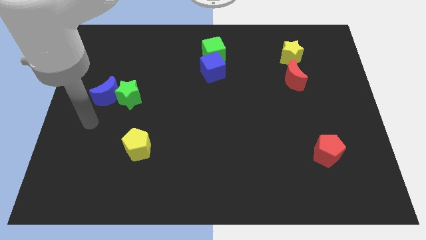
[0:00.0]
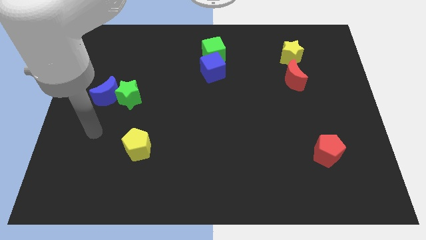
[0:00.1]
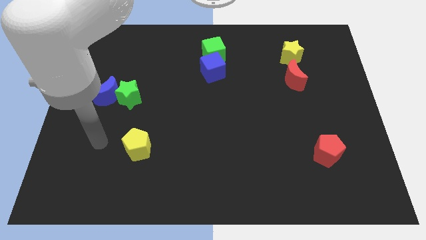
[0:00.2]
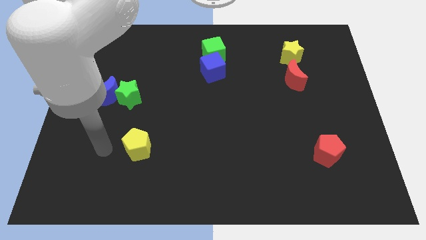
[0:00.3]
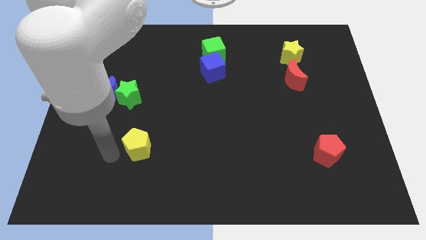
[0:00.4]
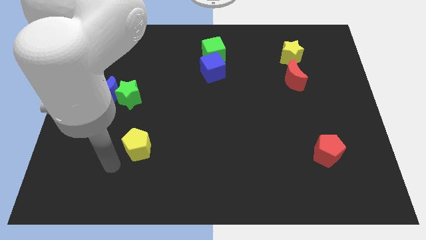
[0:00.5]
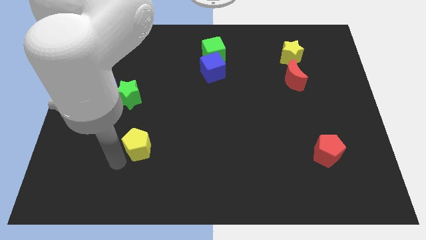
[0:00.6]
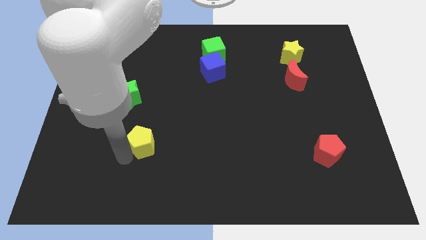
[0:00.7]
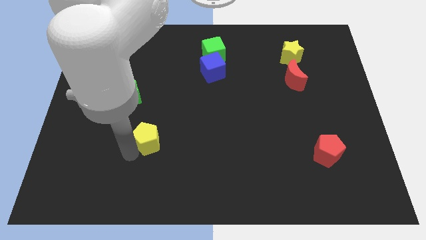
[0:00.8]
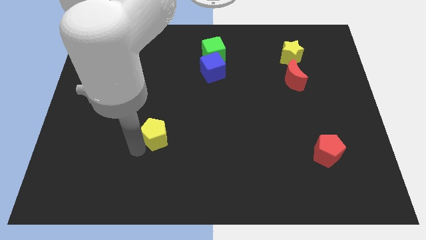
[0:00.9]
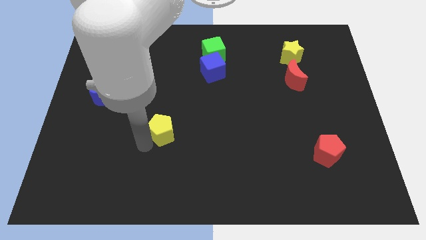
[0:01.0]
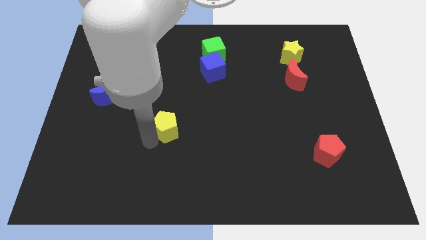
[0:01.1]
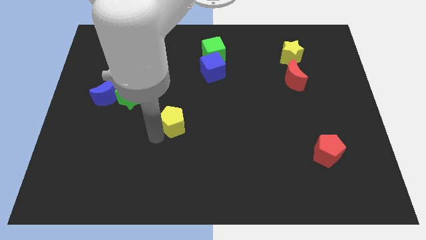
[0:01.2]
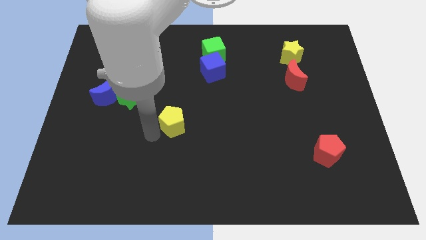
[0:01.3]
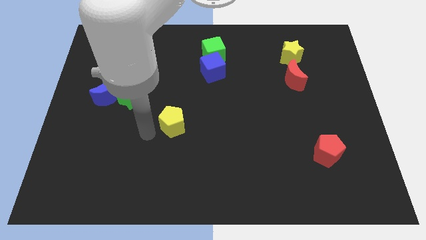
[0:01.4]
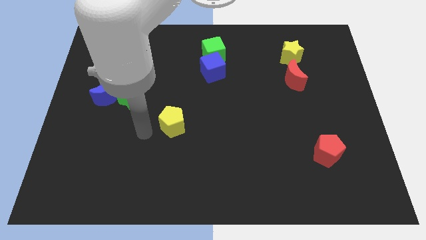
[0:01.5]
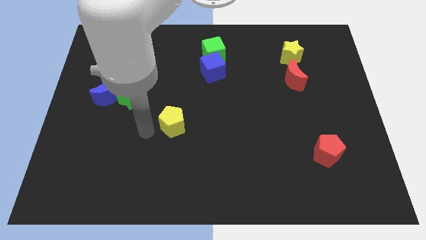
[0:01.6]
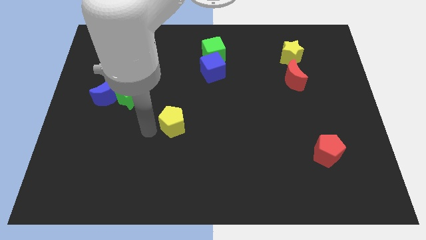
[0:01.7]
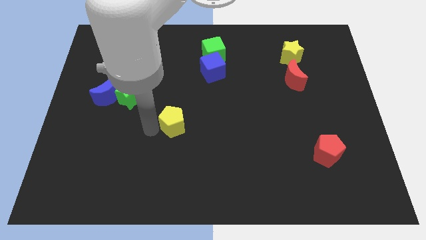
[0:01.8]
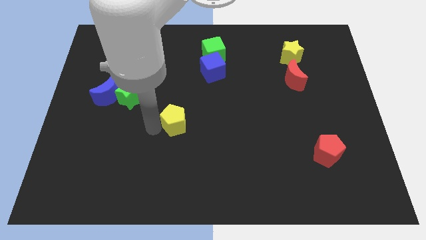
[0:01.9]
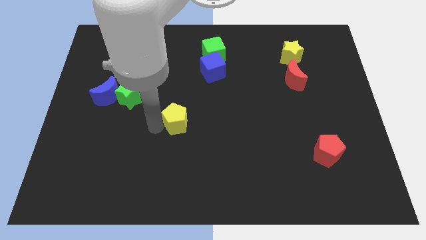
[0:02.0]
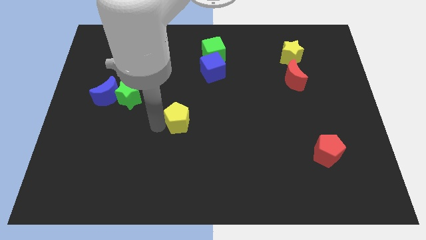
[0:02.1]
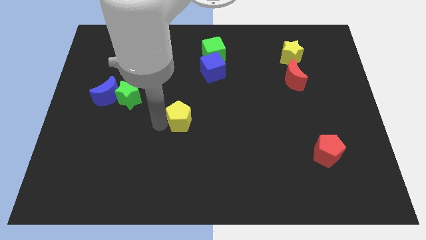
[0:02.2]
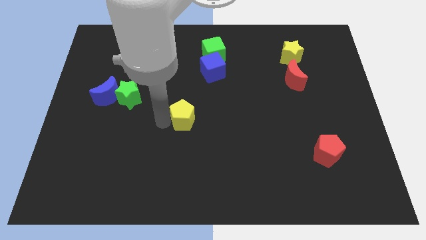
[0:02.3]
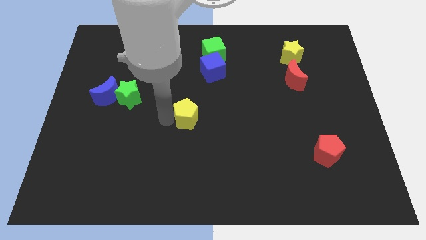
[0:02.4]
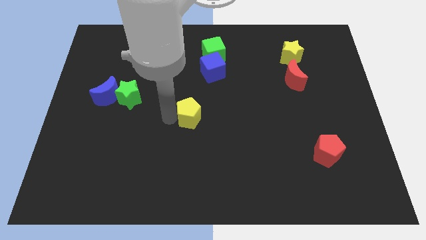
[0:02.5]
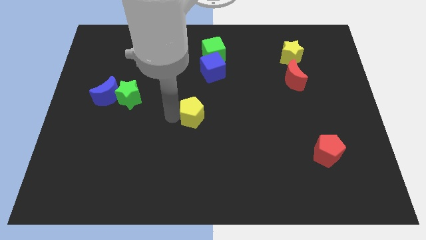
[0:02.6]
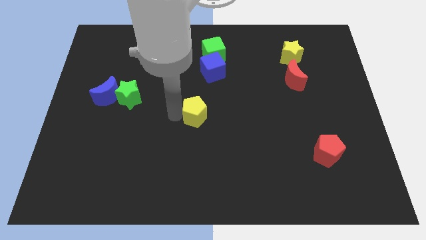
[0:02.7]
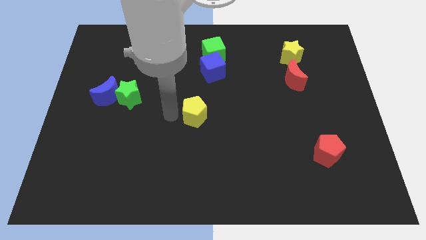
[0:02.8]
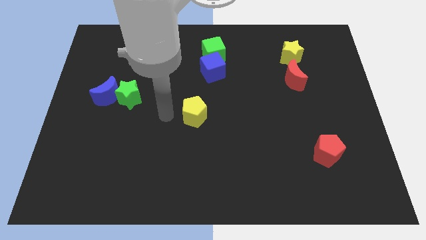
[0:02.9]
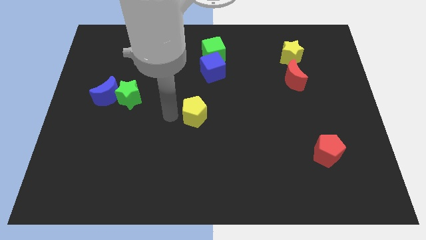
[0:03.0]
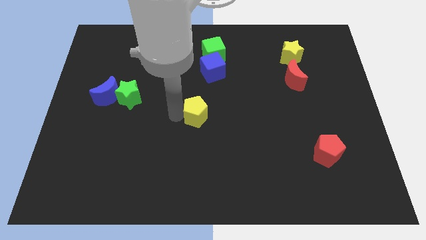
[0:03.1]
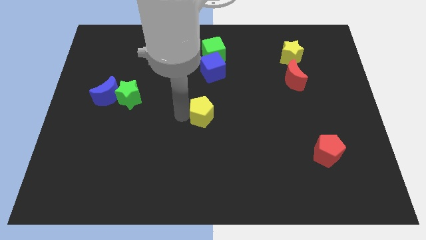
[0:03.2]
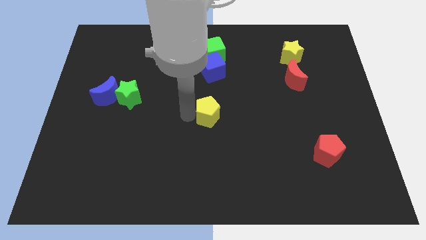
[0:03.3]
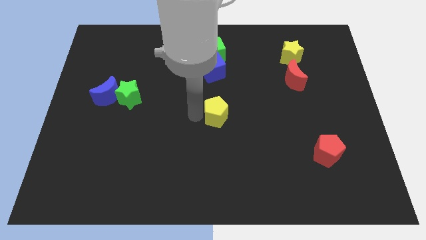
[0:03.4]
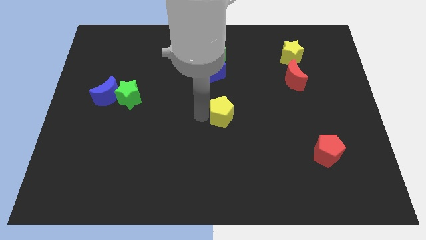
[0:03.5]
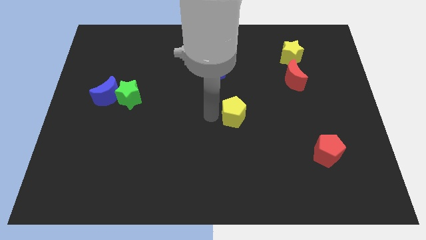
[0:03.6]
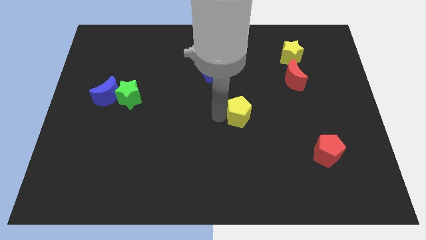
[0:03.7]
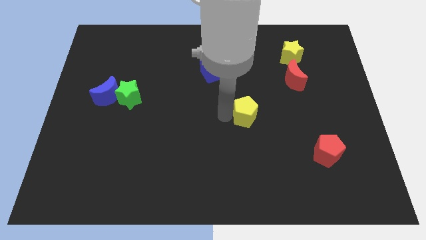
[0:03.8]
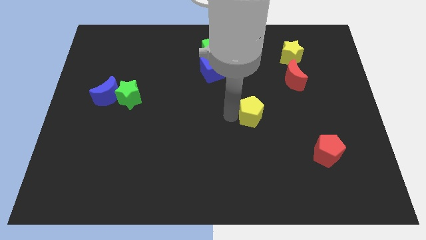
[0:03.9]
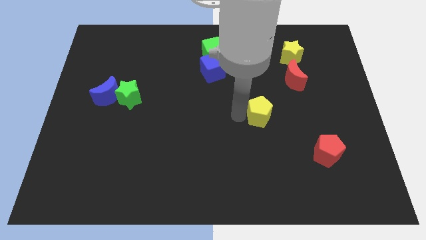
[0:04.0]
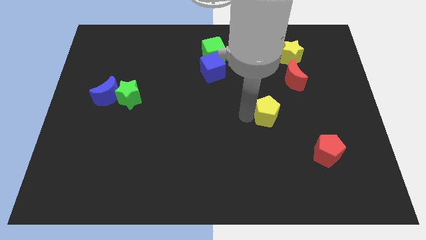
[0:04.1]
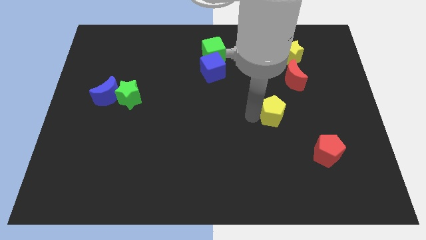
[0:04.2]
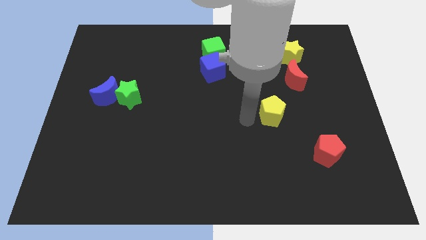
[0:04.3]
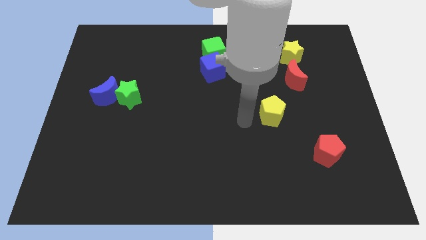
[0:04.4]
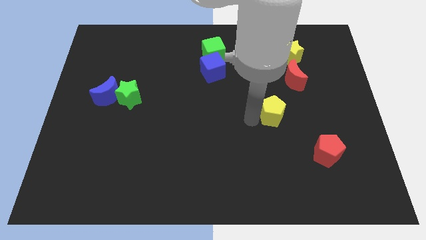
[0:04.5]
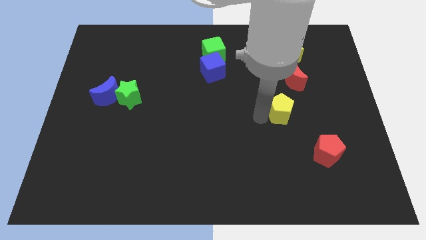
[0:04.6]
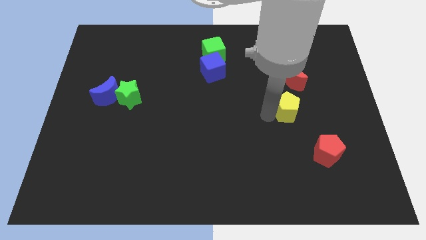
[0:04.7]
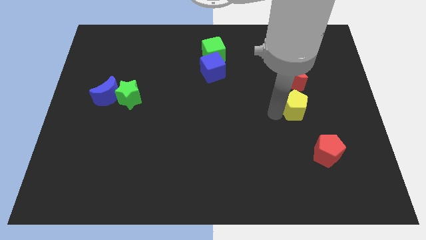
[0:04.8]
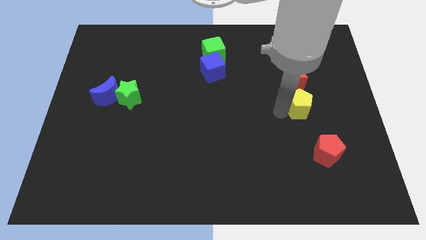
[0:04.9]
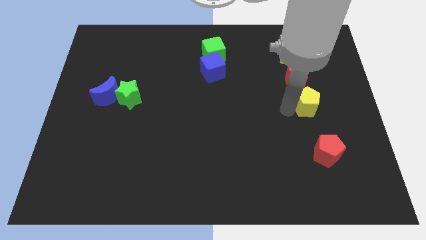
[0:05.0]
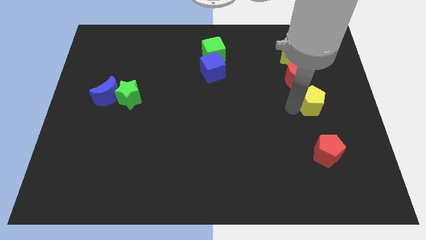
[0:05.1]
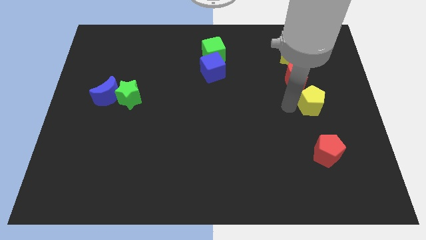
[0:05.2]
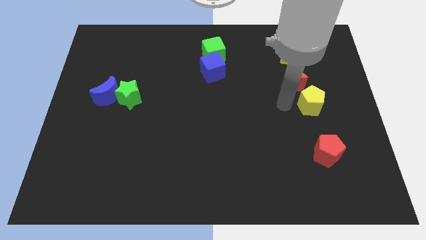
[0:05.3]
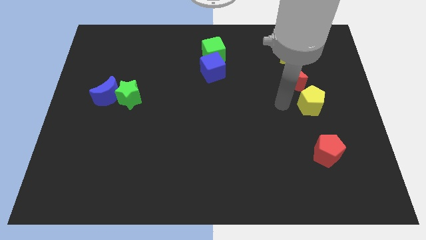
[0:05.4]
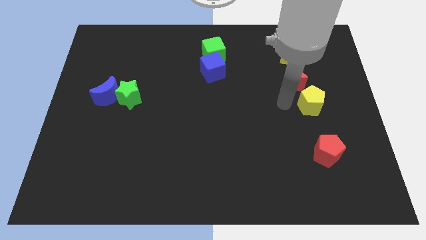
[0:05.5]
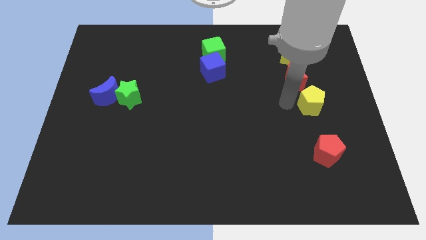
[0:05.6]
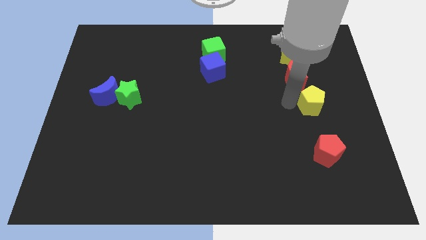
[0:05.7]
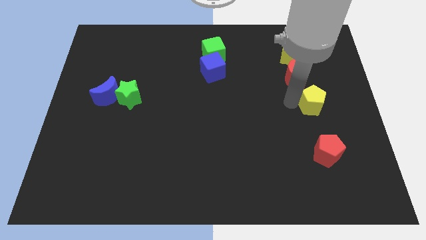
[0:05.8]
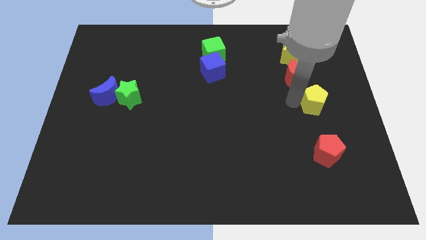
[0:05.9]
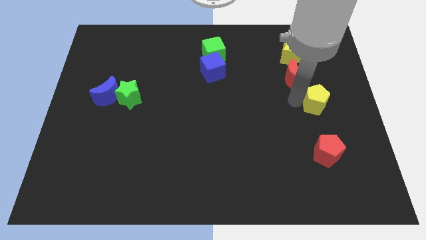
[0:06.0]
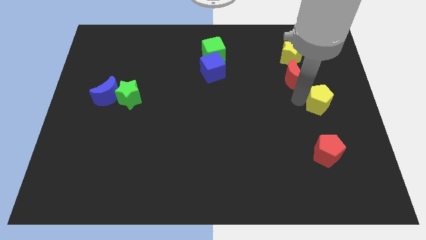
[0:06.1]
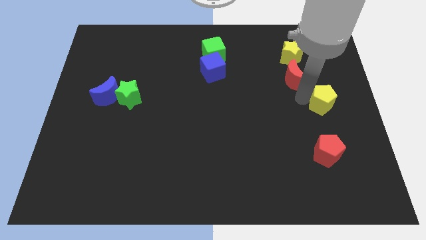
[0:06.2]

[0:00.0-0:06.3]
put the yellow pentagon to the right side of the board
